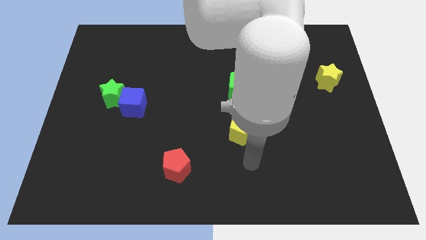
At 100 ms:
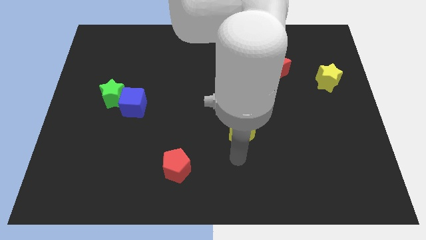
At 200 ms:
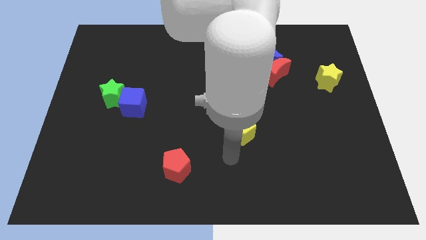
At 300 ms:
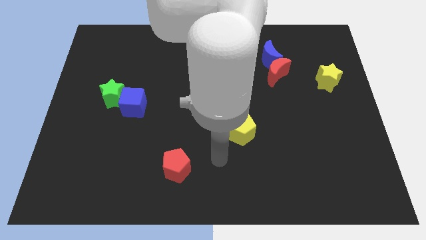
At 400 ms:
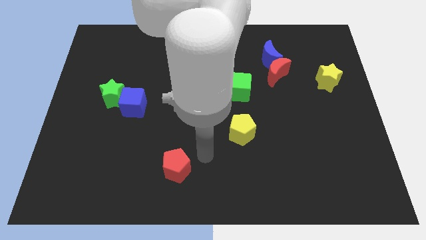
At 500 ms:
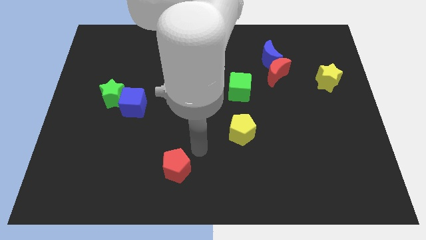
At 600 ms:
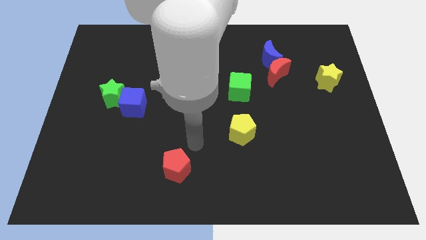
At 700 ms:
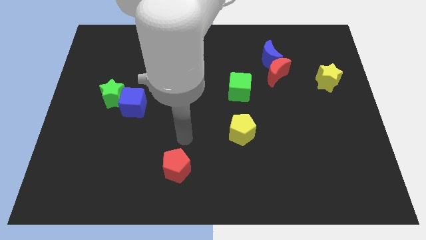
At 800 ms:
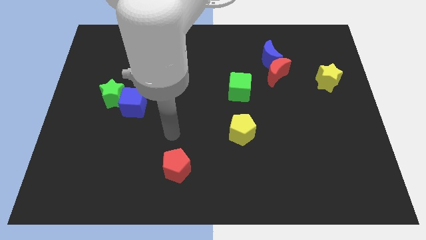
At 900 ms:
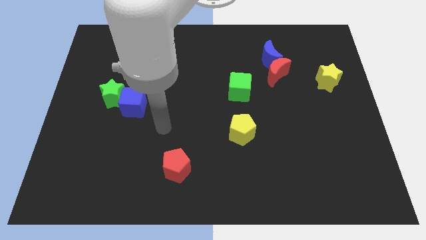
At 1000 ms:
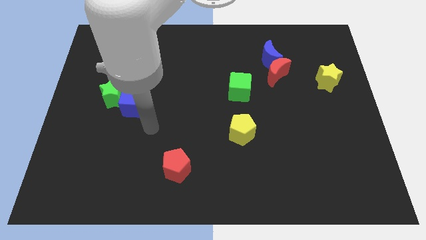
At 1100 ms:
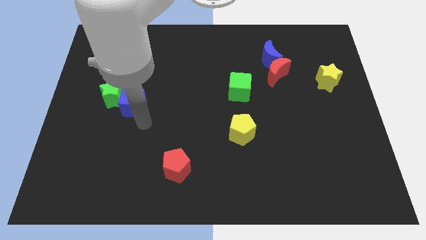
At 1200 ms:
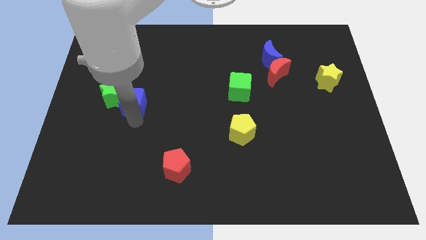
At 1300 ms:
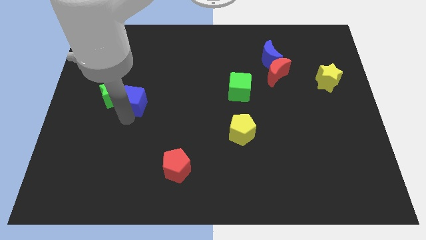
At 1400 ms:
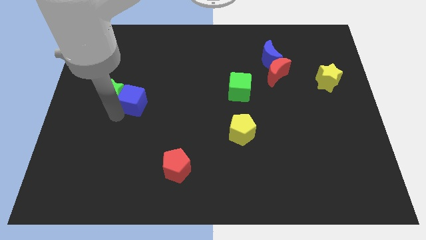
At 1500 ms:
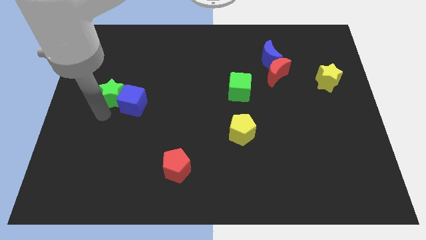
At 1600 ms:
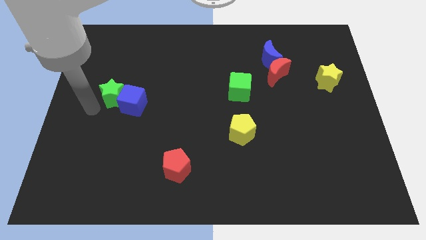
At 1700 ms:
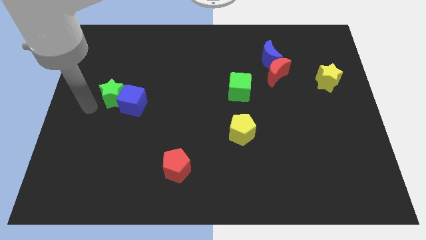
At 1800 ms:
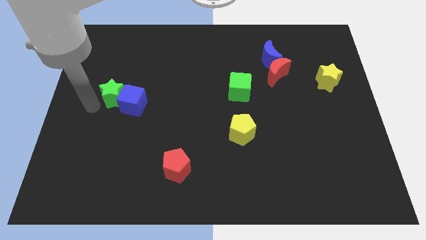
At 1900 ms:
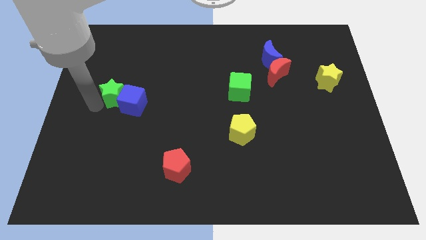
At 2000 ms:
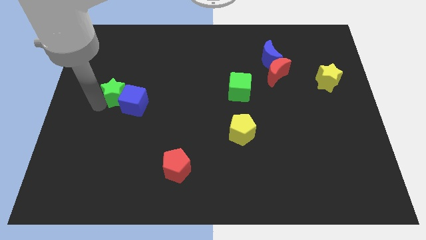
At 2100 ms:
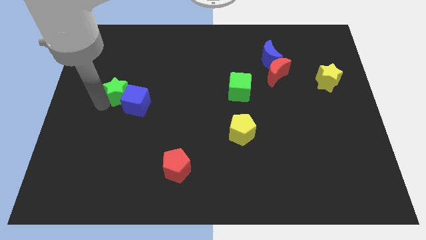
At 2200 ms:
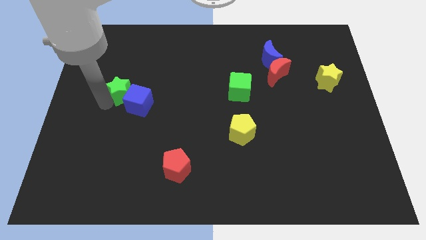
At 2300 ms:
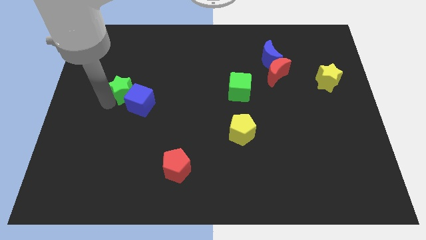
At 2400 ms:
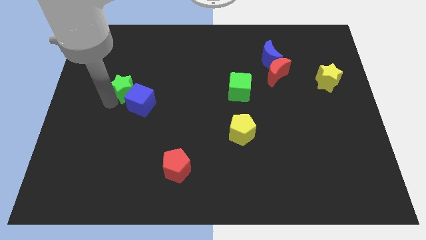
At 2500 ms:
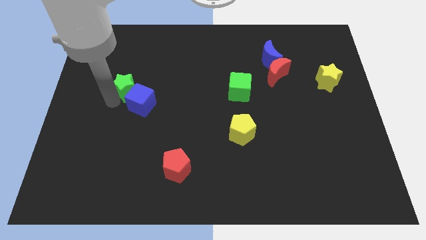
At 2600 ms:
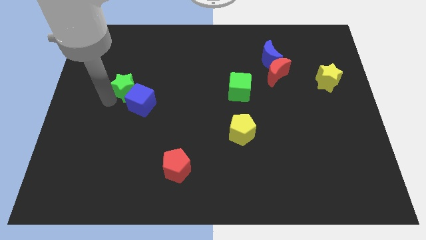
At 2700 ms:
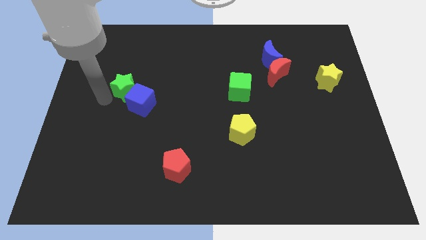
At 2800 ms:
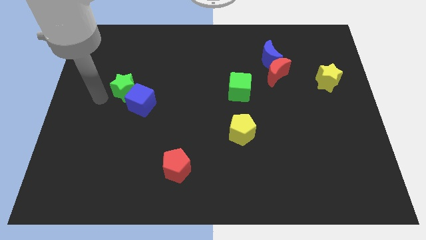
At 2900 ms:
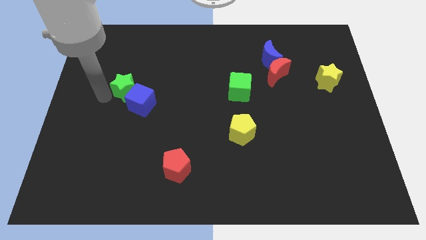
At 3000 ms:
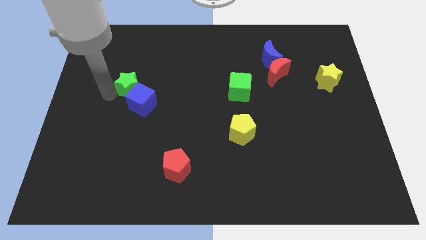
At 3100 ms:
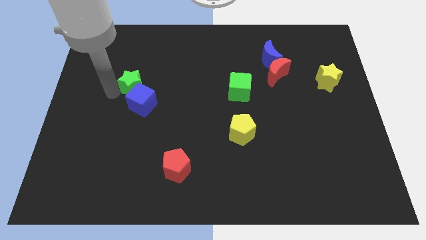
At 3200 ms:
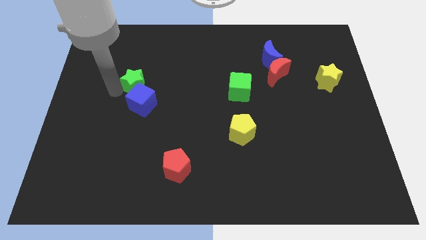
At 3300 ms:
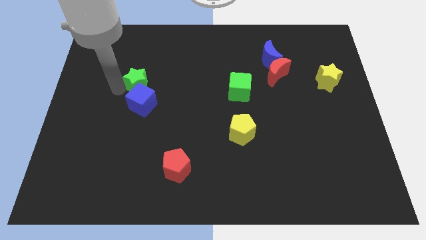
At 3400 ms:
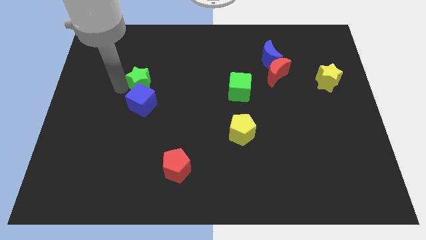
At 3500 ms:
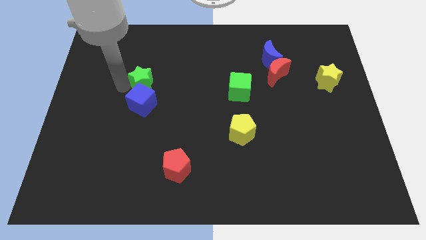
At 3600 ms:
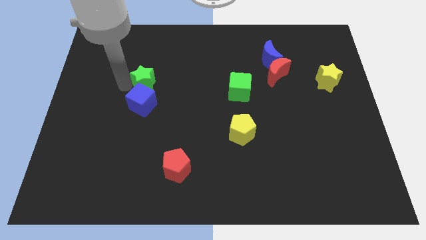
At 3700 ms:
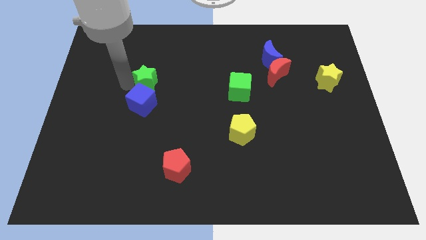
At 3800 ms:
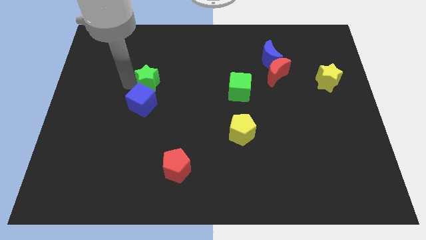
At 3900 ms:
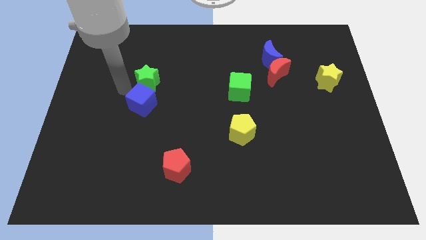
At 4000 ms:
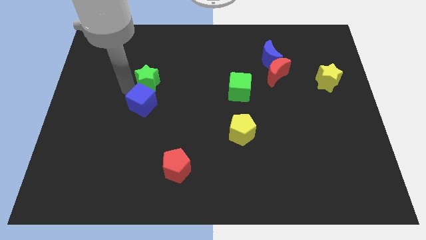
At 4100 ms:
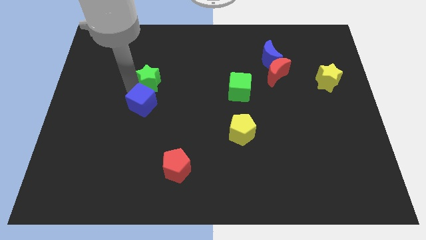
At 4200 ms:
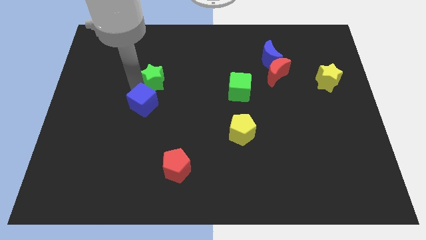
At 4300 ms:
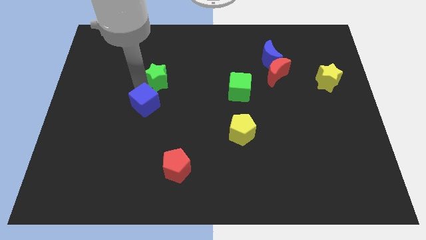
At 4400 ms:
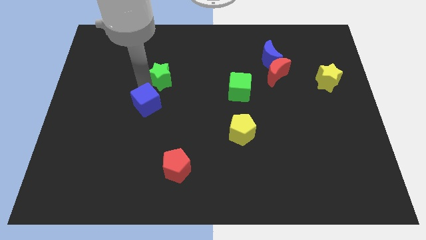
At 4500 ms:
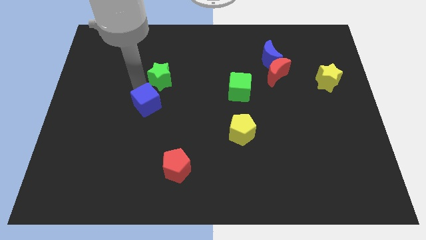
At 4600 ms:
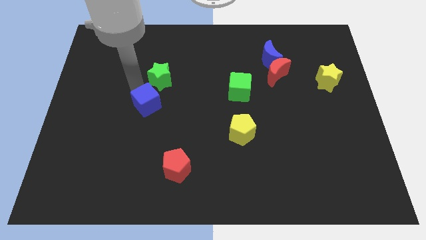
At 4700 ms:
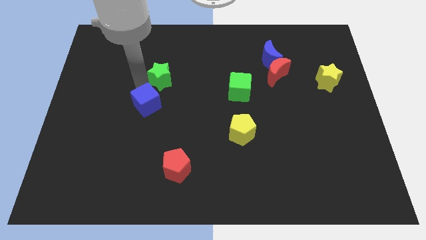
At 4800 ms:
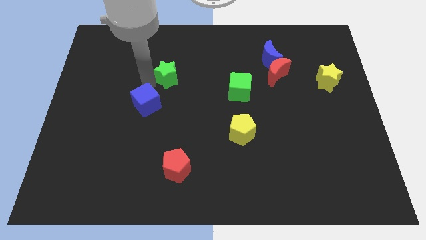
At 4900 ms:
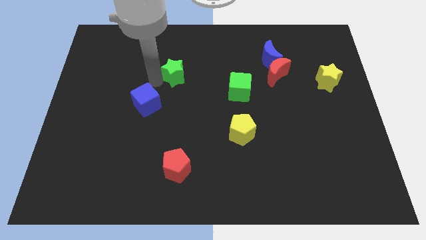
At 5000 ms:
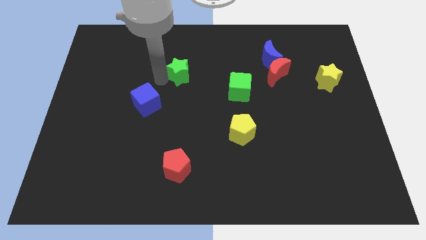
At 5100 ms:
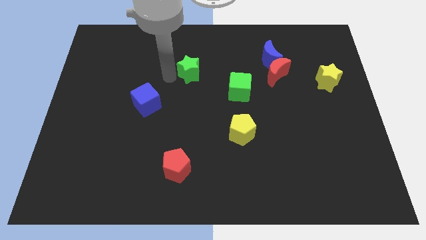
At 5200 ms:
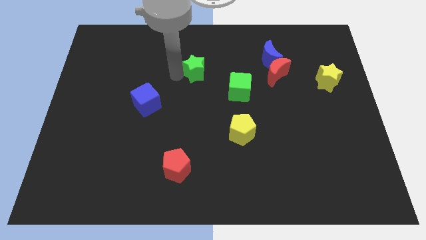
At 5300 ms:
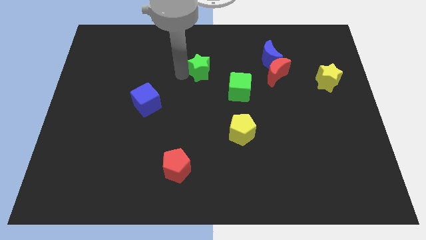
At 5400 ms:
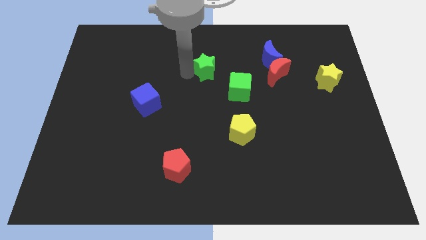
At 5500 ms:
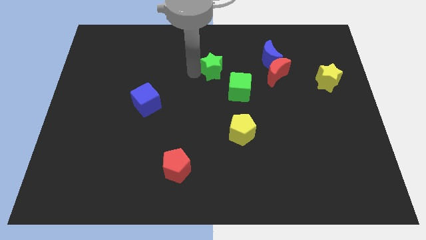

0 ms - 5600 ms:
slide the green star just left of the blue moon

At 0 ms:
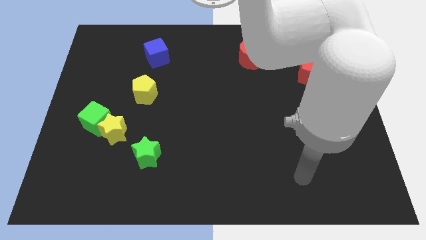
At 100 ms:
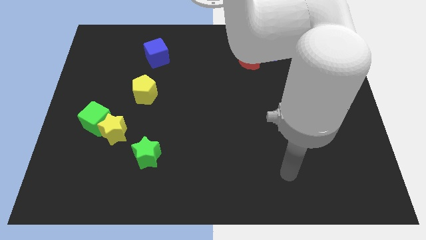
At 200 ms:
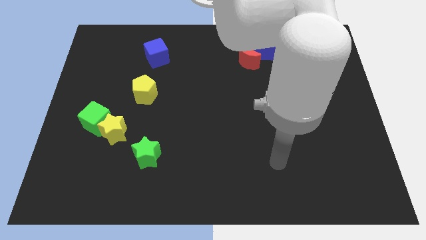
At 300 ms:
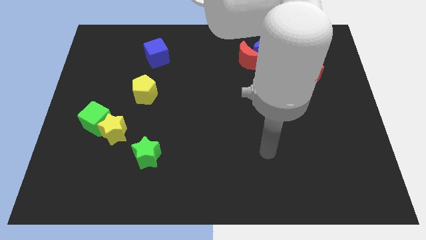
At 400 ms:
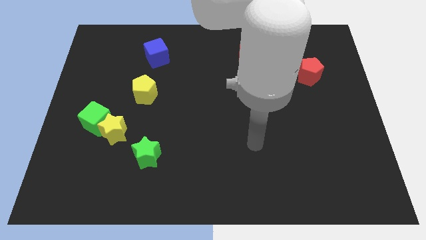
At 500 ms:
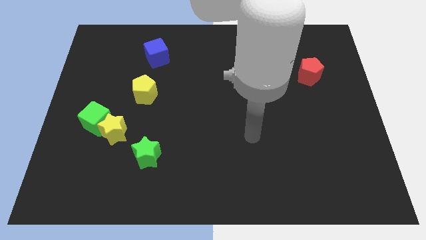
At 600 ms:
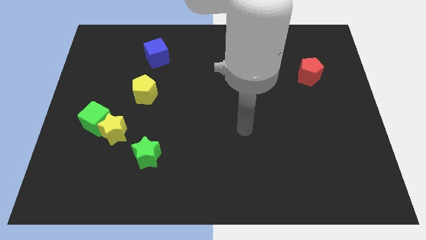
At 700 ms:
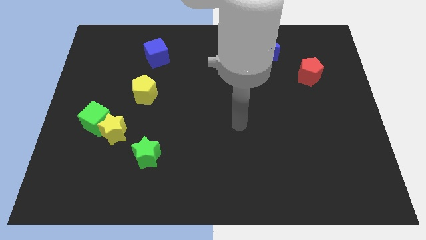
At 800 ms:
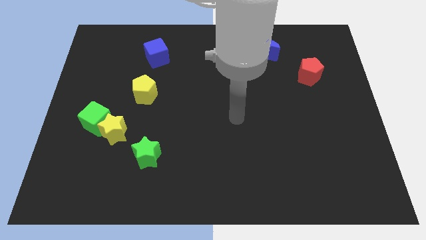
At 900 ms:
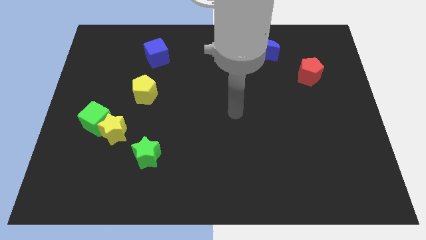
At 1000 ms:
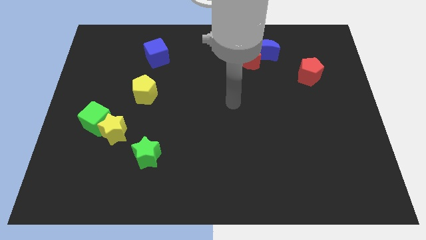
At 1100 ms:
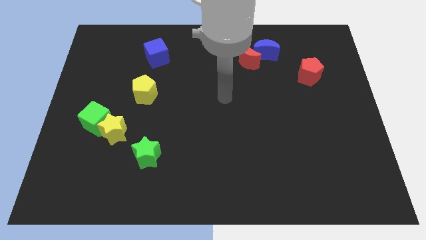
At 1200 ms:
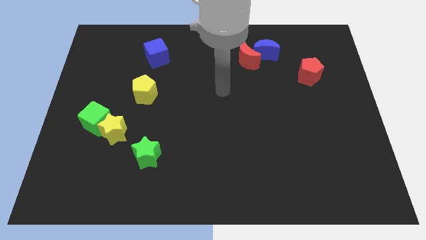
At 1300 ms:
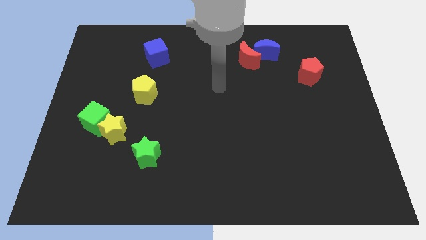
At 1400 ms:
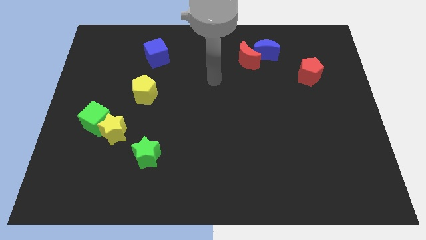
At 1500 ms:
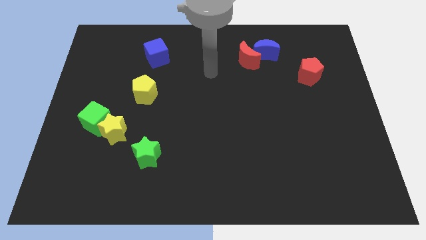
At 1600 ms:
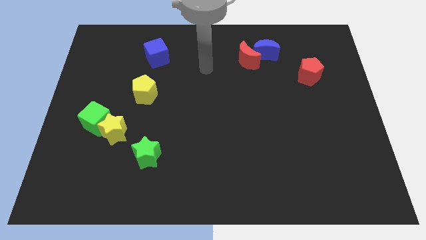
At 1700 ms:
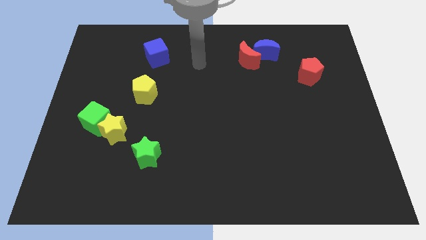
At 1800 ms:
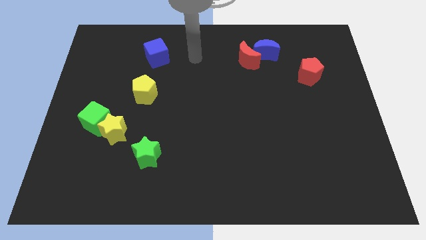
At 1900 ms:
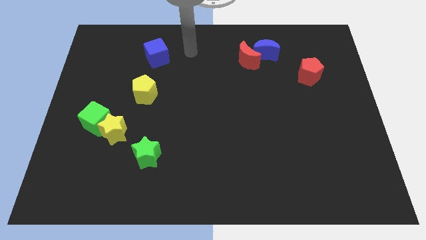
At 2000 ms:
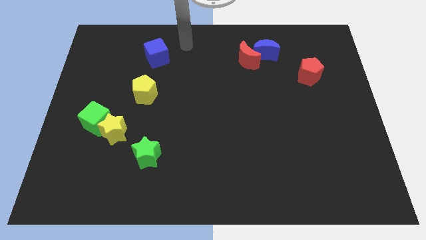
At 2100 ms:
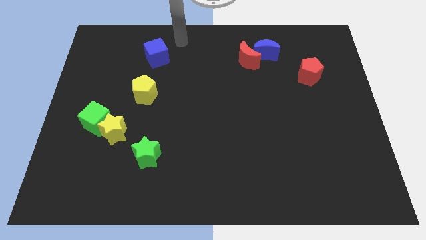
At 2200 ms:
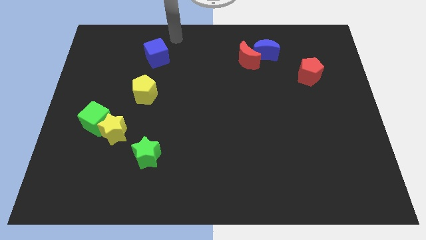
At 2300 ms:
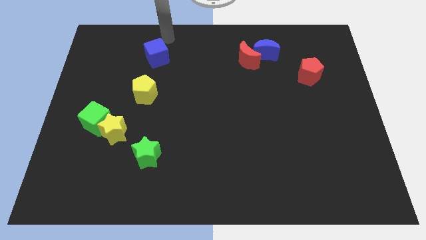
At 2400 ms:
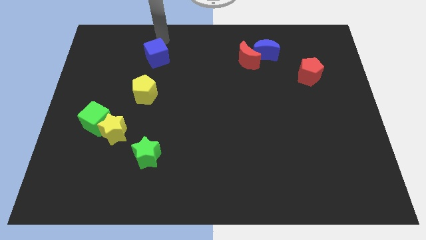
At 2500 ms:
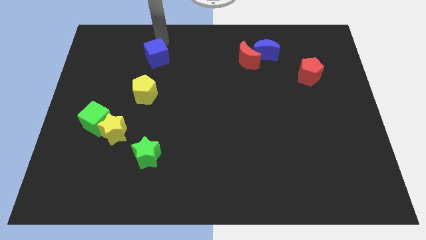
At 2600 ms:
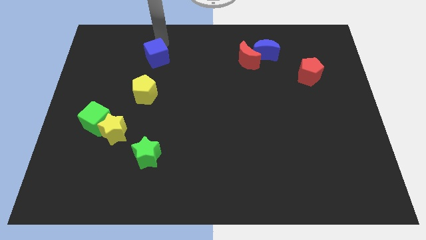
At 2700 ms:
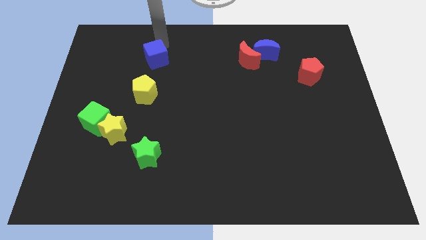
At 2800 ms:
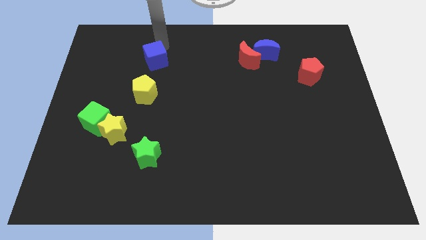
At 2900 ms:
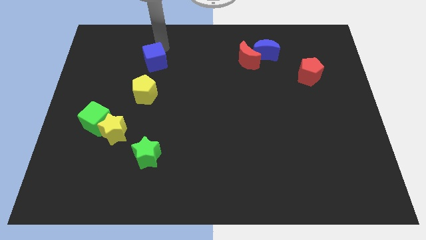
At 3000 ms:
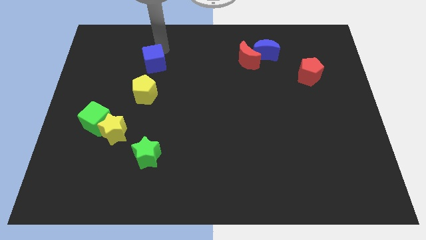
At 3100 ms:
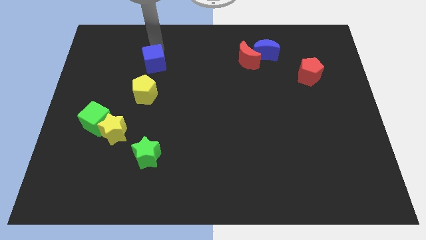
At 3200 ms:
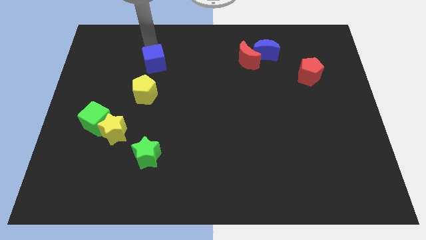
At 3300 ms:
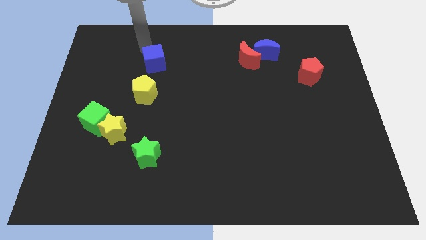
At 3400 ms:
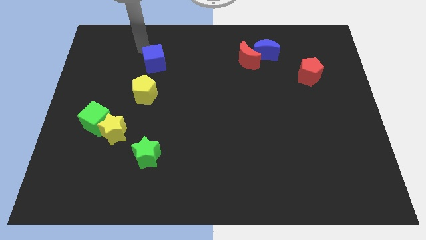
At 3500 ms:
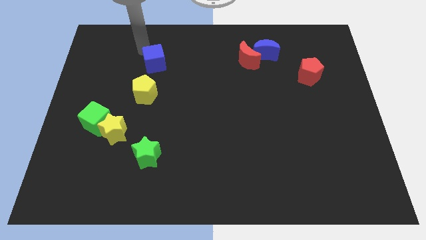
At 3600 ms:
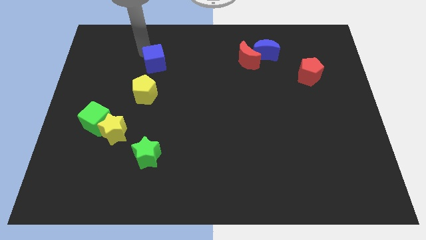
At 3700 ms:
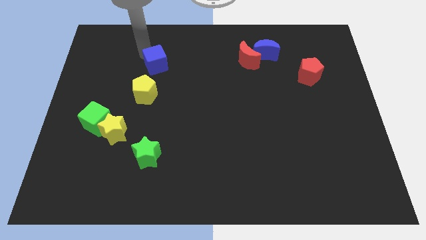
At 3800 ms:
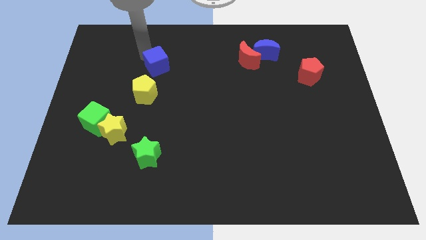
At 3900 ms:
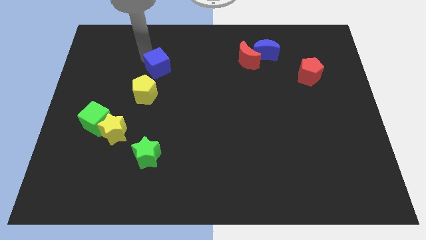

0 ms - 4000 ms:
slide the blue cube diagonally up and to the right of the yellow pentagon
